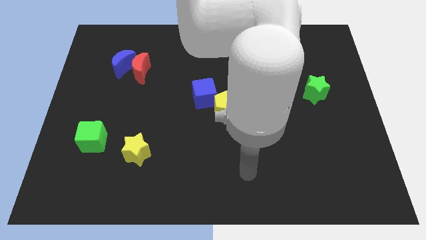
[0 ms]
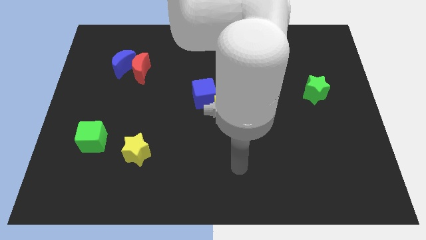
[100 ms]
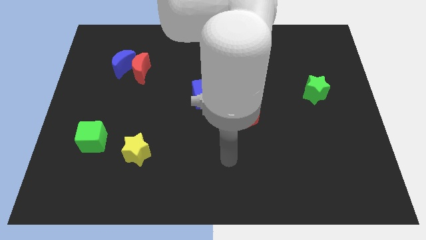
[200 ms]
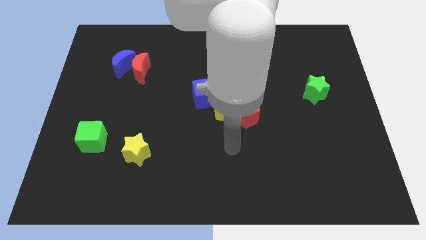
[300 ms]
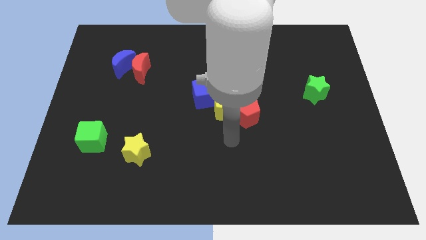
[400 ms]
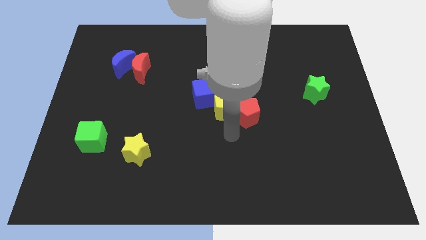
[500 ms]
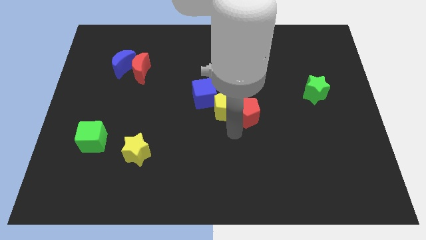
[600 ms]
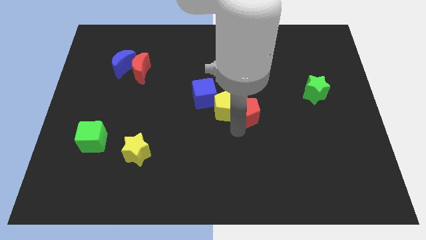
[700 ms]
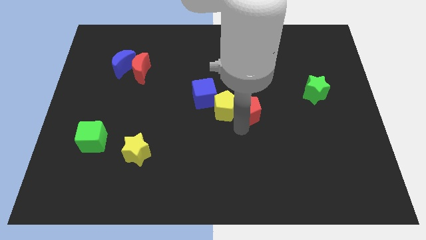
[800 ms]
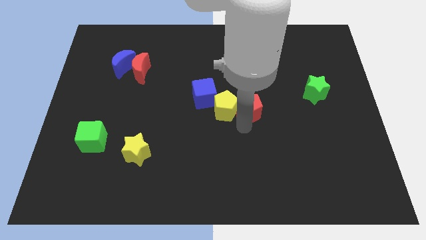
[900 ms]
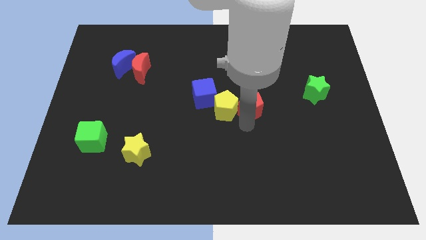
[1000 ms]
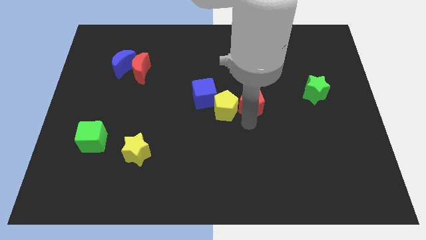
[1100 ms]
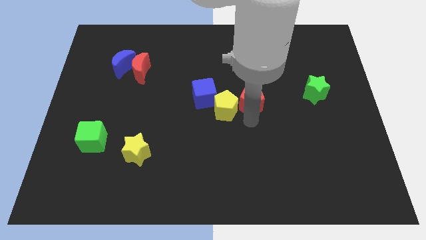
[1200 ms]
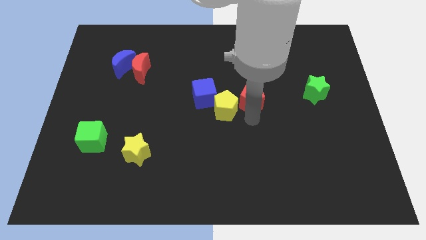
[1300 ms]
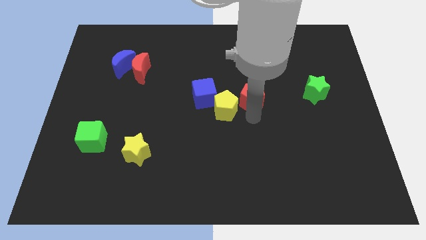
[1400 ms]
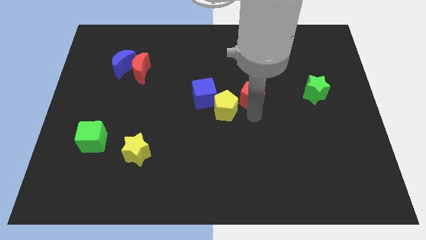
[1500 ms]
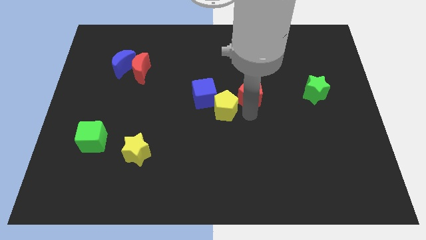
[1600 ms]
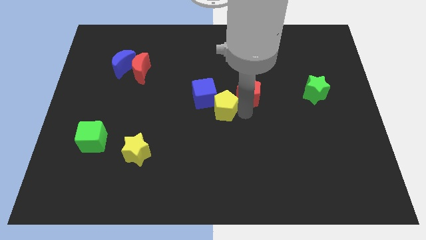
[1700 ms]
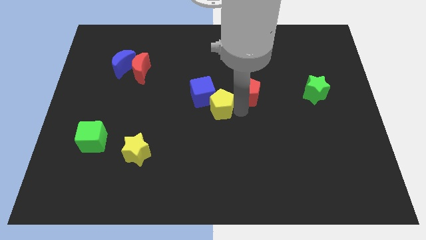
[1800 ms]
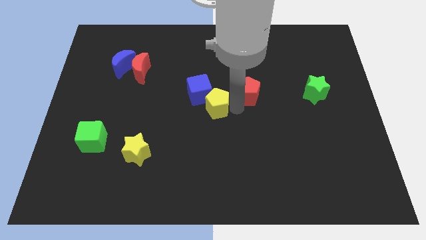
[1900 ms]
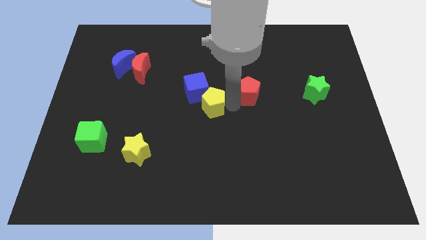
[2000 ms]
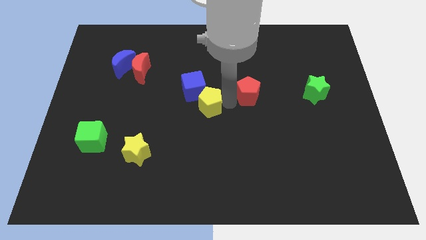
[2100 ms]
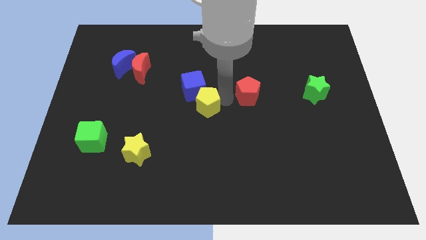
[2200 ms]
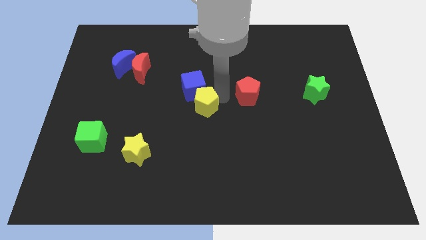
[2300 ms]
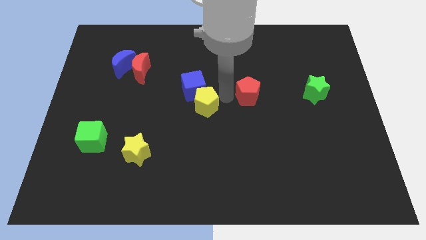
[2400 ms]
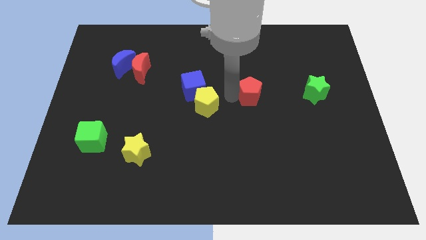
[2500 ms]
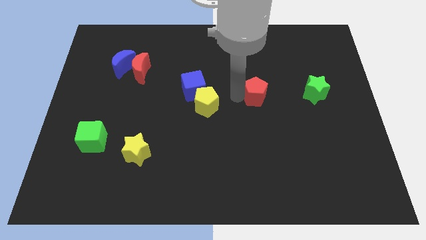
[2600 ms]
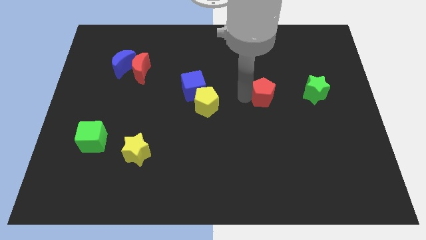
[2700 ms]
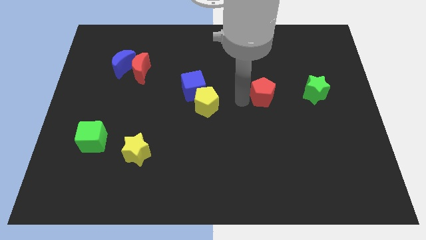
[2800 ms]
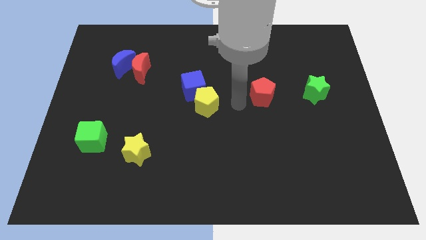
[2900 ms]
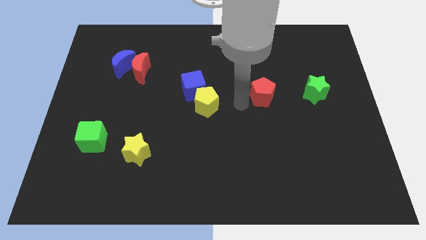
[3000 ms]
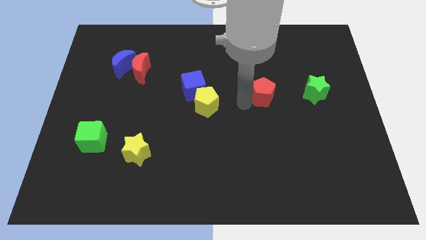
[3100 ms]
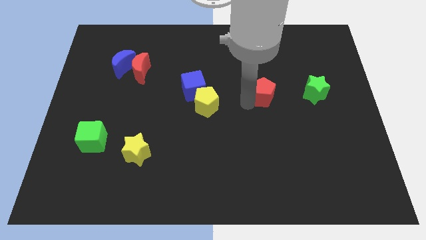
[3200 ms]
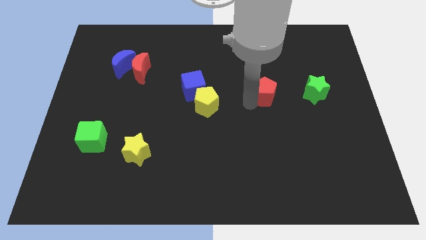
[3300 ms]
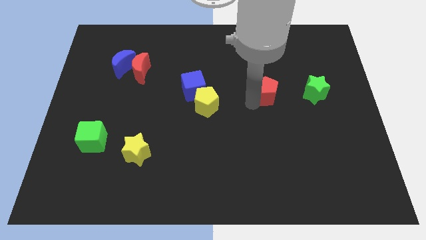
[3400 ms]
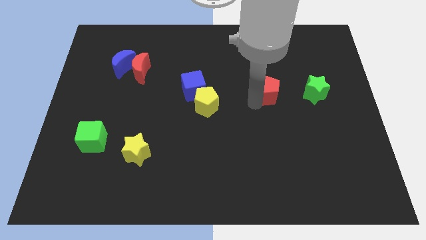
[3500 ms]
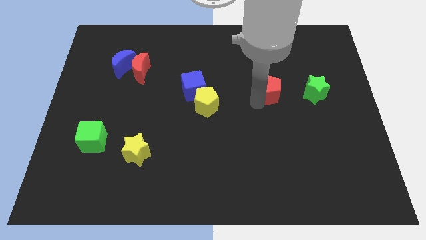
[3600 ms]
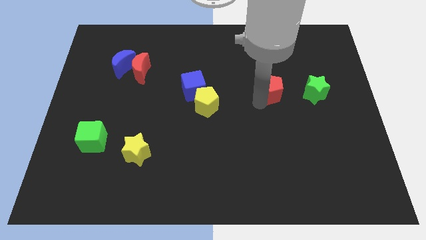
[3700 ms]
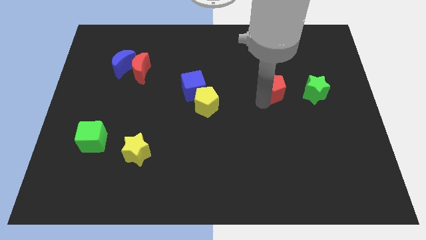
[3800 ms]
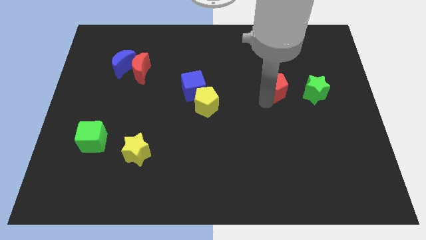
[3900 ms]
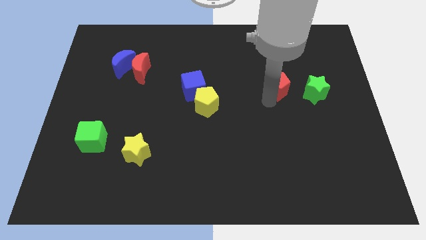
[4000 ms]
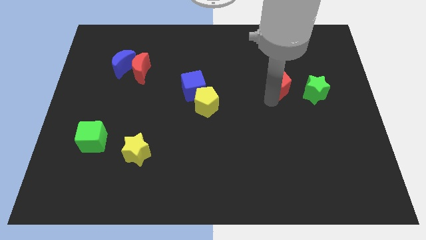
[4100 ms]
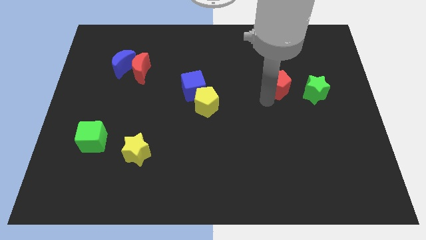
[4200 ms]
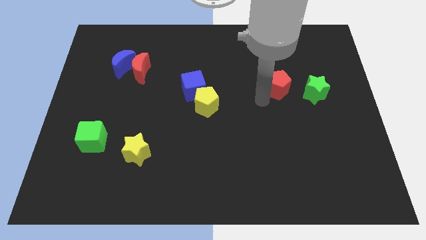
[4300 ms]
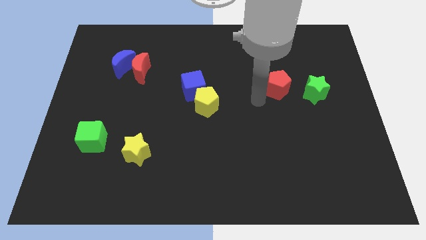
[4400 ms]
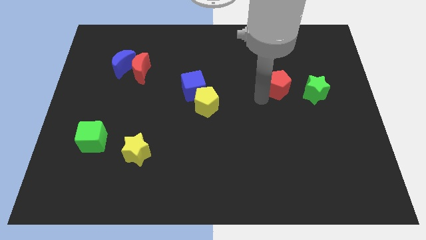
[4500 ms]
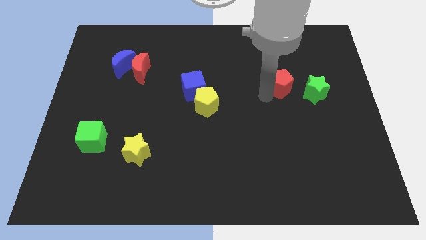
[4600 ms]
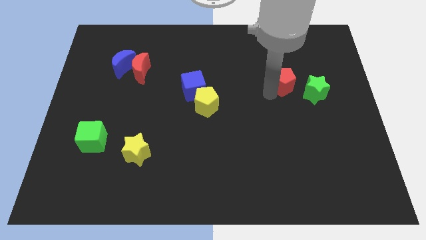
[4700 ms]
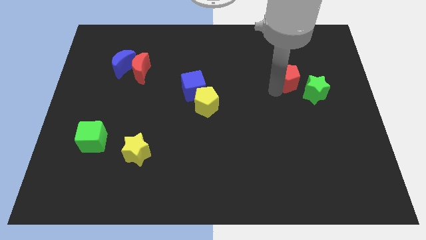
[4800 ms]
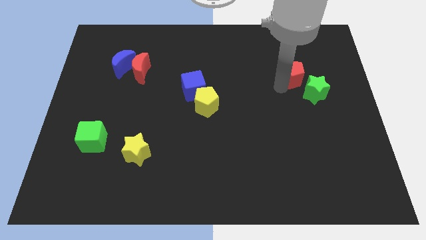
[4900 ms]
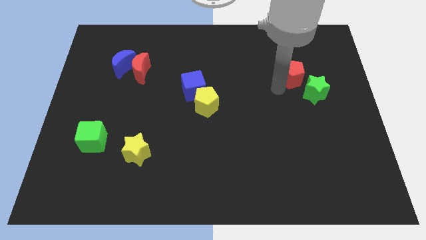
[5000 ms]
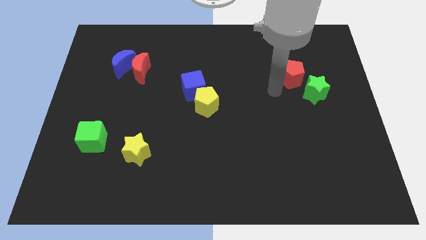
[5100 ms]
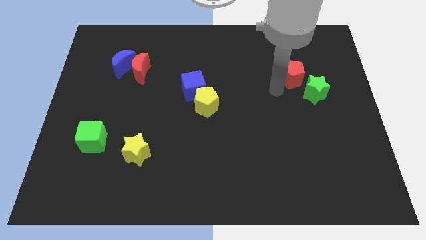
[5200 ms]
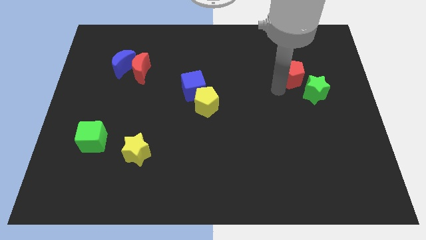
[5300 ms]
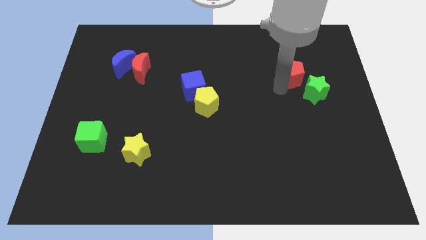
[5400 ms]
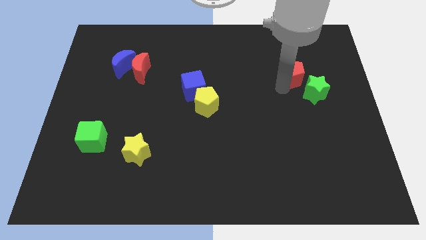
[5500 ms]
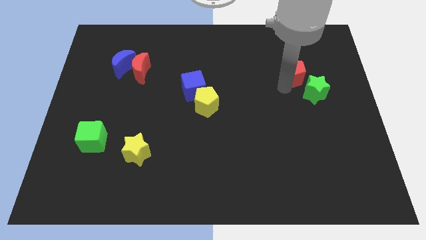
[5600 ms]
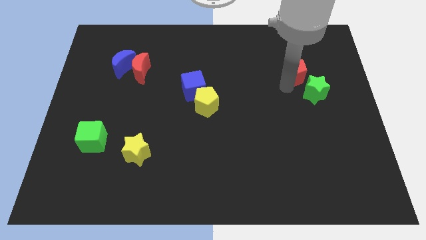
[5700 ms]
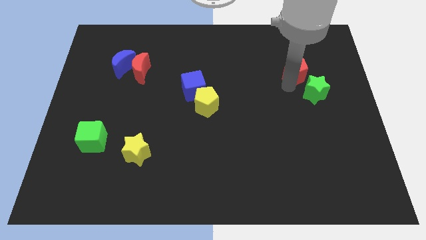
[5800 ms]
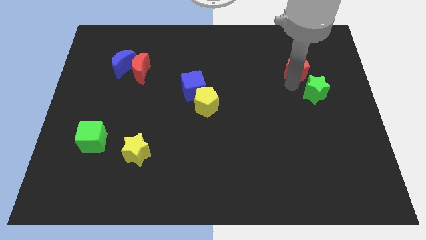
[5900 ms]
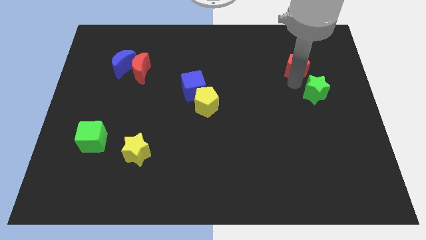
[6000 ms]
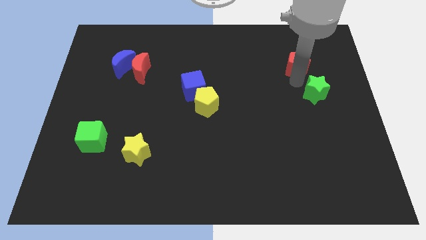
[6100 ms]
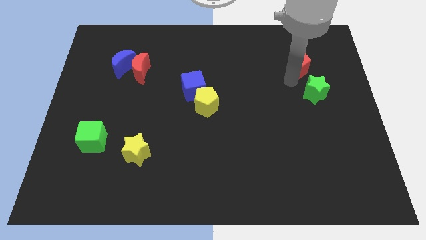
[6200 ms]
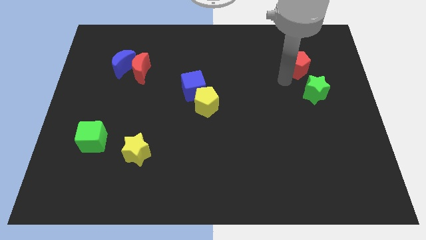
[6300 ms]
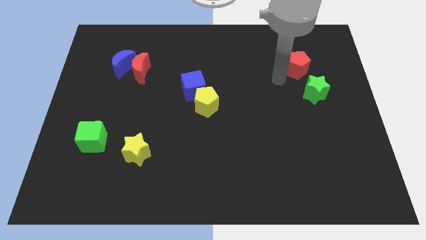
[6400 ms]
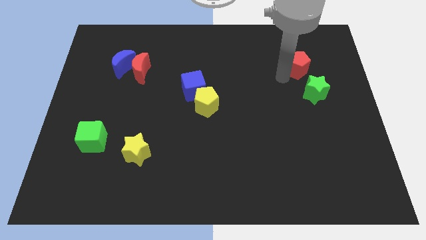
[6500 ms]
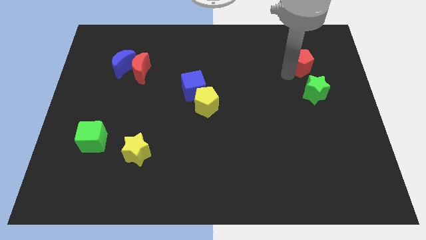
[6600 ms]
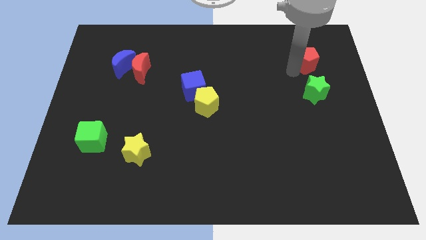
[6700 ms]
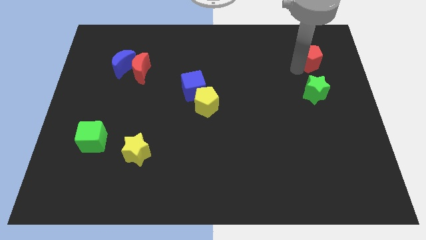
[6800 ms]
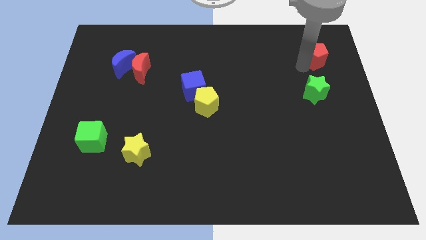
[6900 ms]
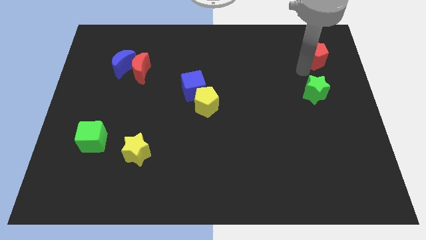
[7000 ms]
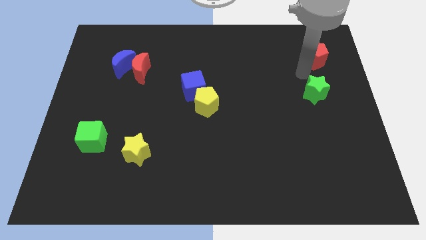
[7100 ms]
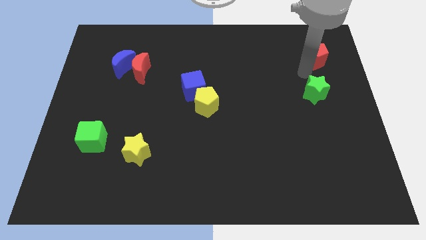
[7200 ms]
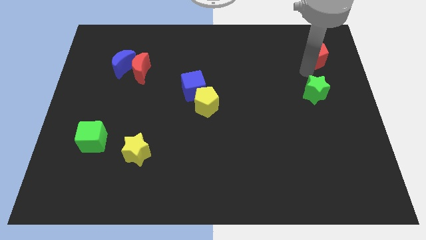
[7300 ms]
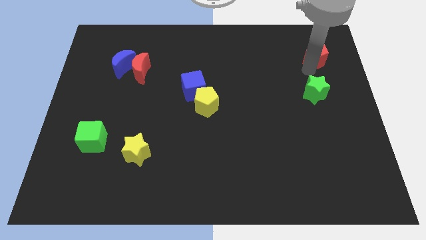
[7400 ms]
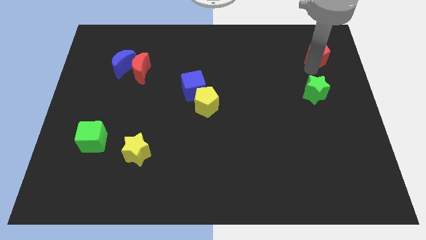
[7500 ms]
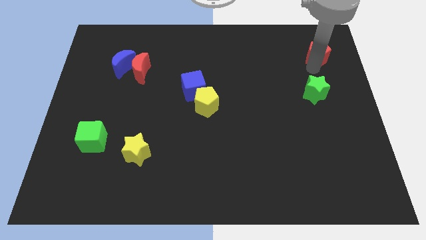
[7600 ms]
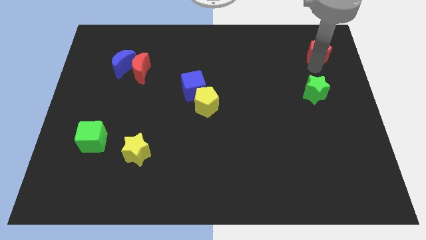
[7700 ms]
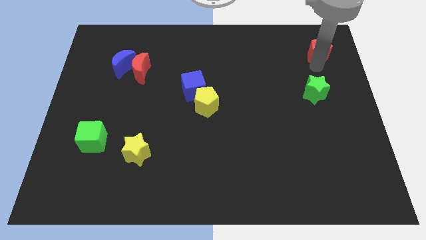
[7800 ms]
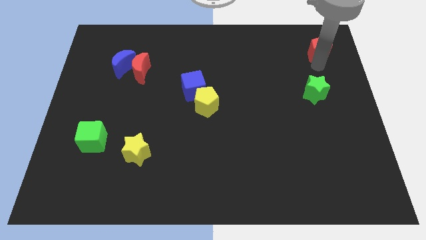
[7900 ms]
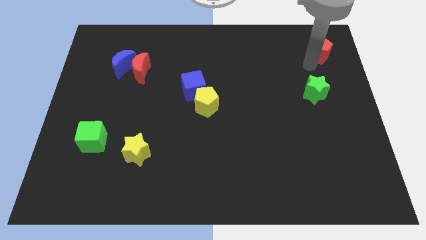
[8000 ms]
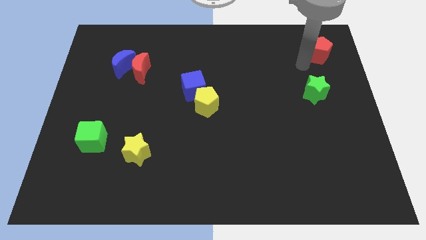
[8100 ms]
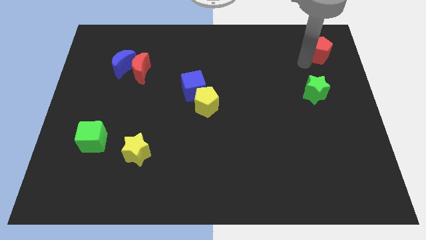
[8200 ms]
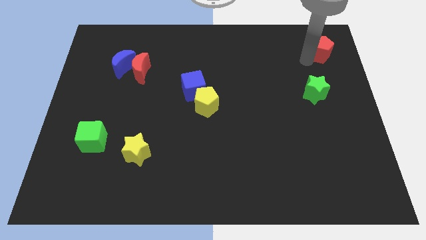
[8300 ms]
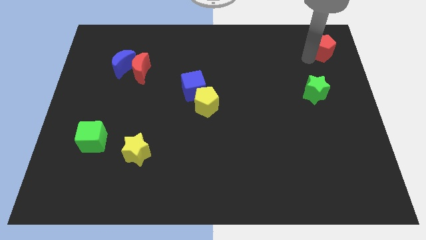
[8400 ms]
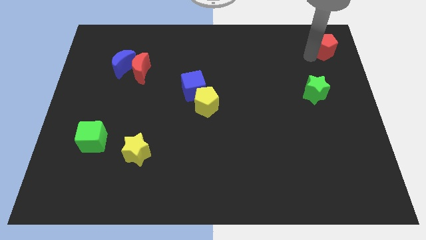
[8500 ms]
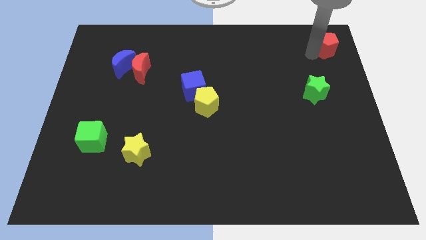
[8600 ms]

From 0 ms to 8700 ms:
push the red pentagon to the top right
